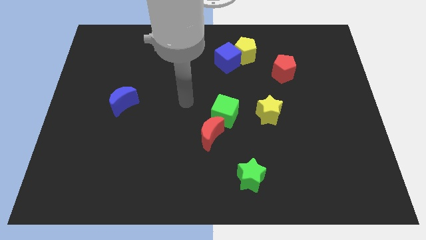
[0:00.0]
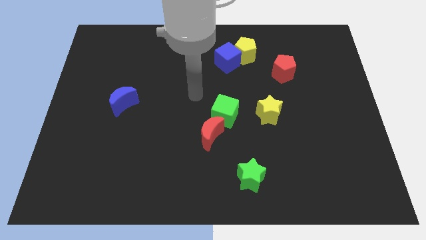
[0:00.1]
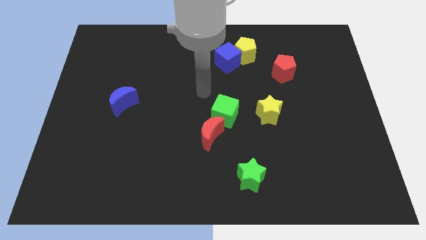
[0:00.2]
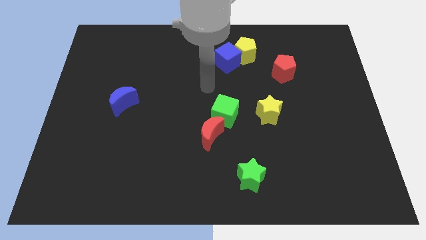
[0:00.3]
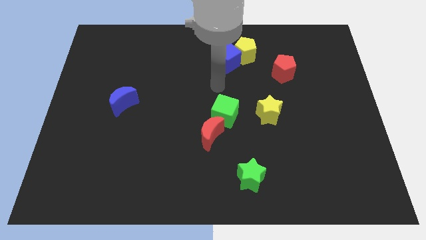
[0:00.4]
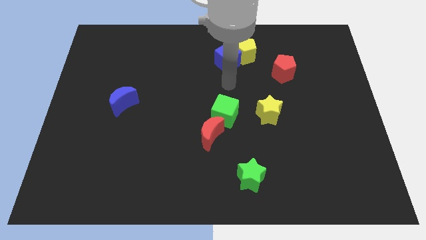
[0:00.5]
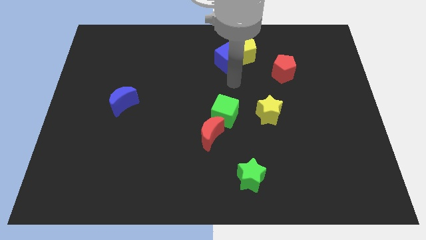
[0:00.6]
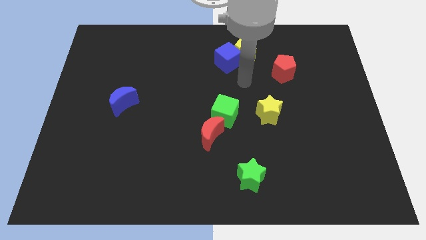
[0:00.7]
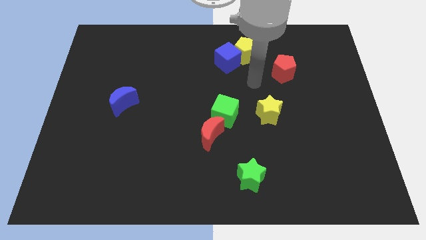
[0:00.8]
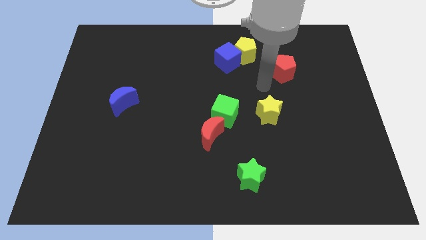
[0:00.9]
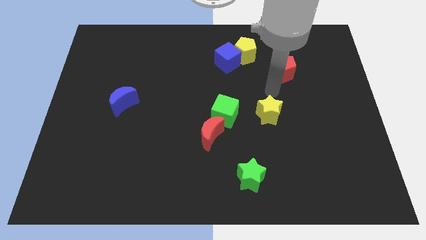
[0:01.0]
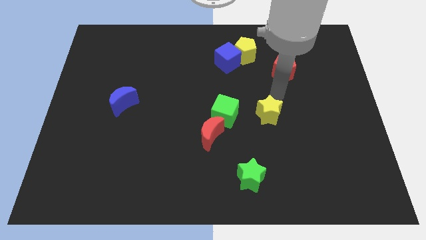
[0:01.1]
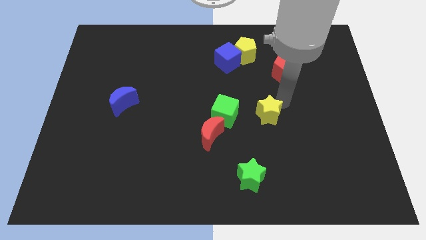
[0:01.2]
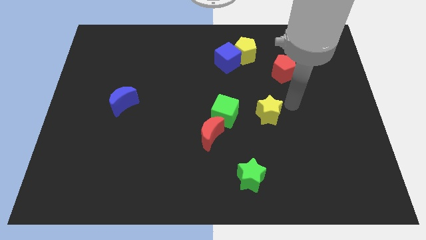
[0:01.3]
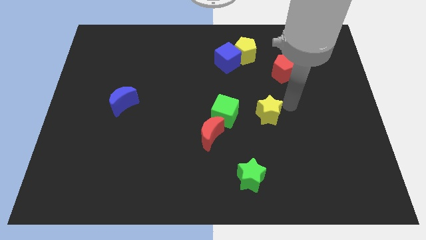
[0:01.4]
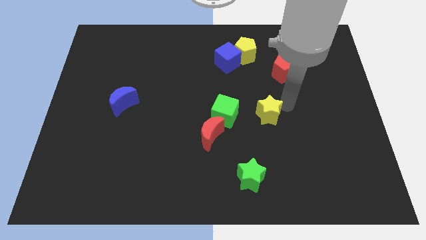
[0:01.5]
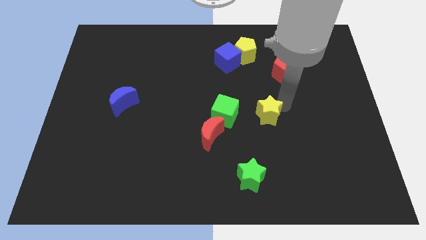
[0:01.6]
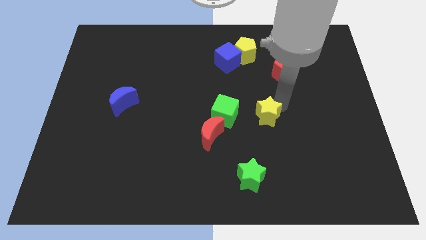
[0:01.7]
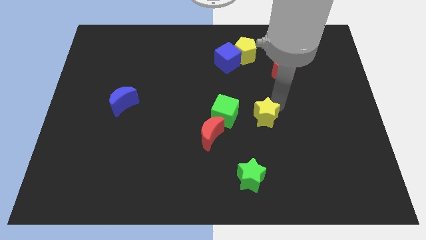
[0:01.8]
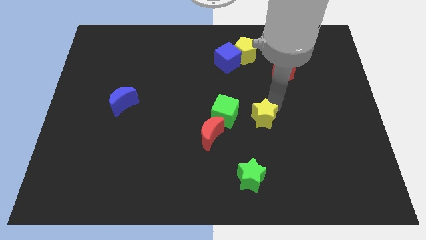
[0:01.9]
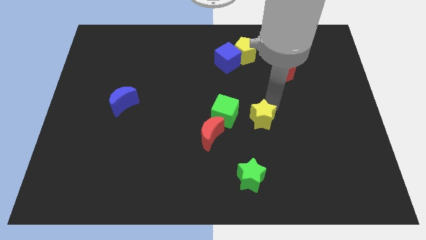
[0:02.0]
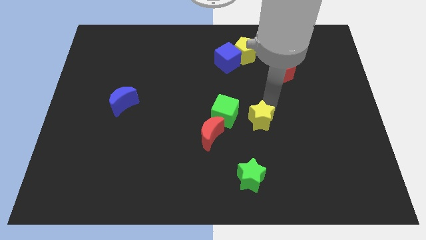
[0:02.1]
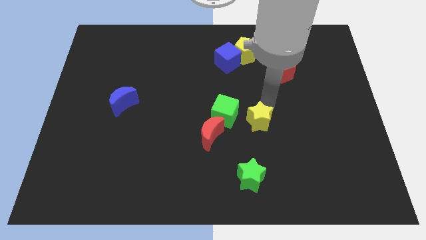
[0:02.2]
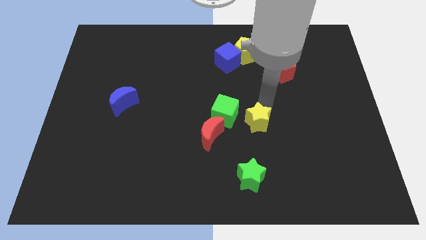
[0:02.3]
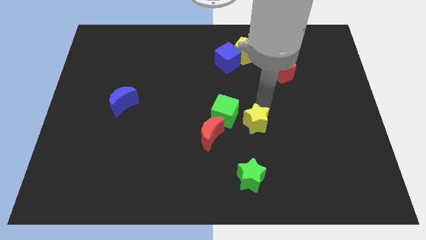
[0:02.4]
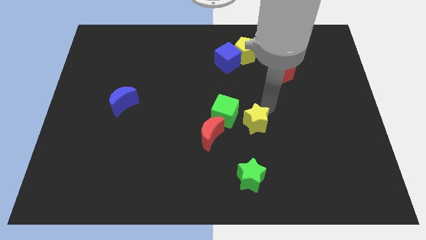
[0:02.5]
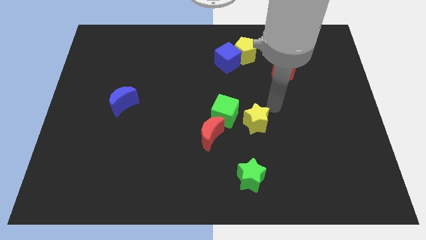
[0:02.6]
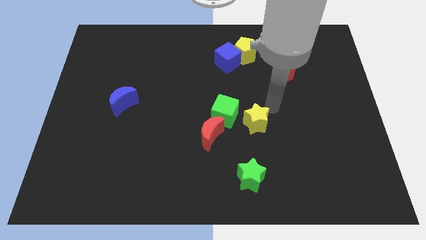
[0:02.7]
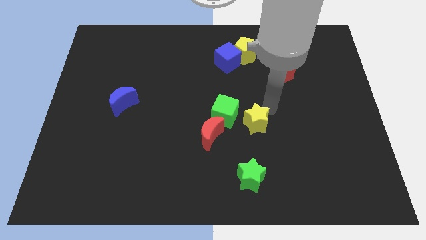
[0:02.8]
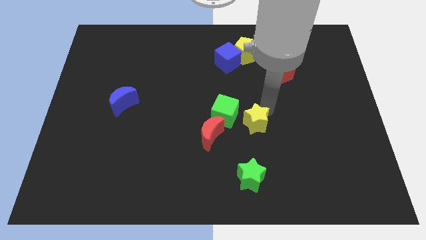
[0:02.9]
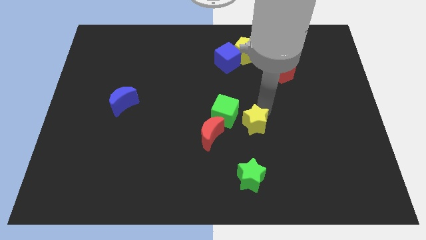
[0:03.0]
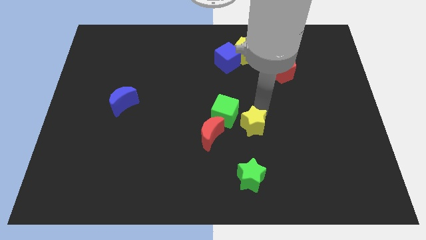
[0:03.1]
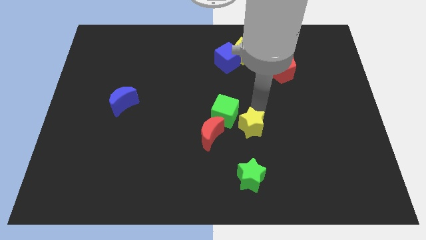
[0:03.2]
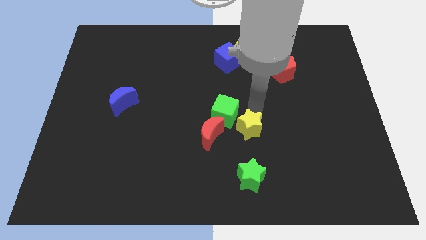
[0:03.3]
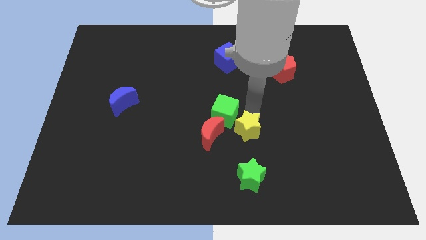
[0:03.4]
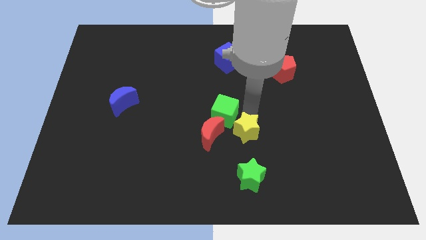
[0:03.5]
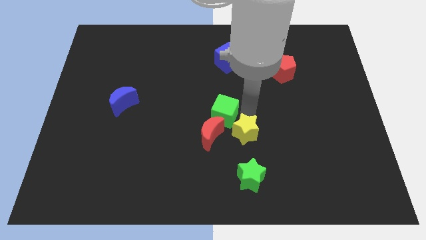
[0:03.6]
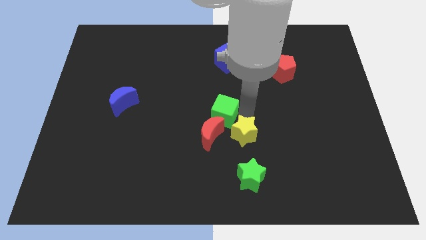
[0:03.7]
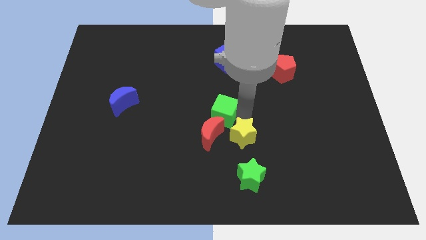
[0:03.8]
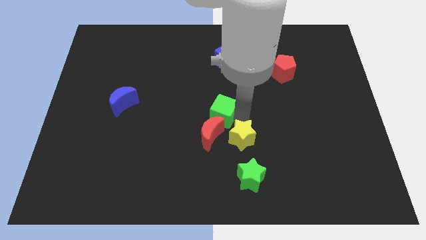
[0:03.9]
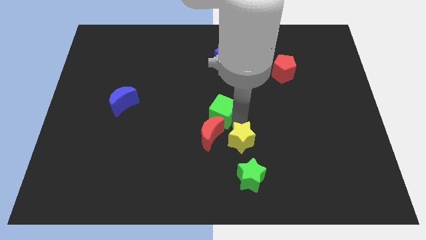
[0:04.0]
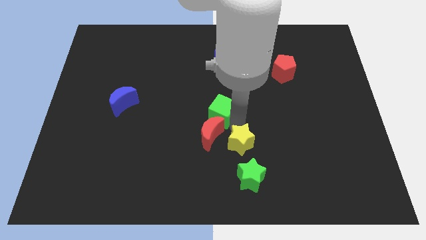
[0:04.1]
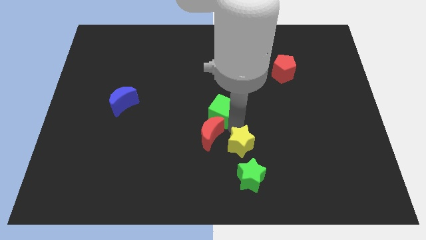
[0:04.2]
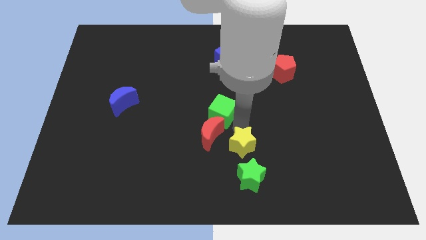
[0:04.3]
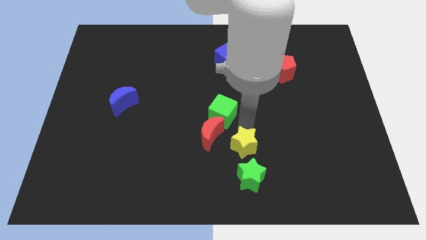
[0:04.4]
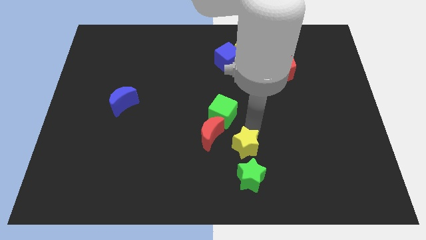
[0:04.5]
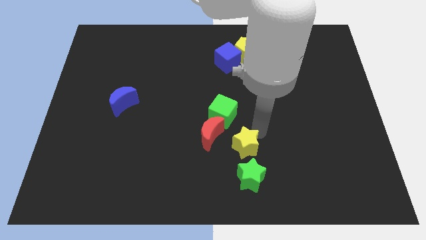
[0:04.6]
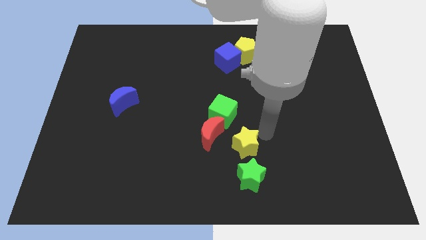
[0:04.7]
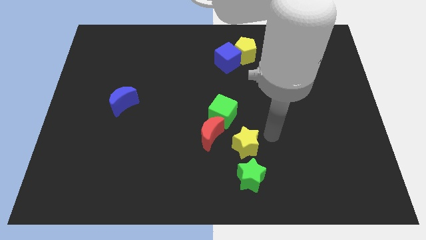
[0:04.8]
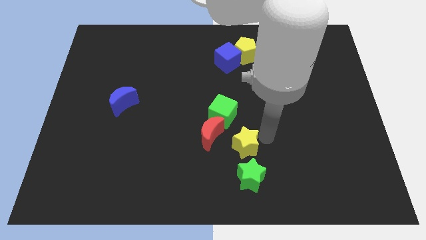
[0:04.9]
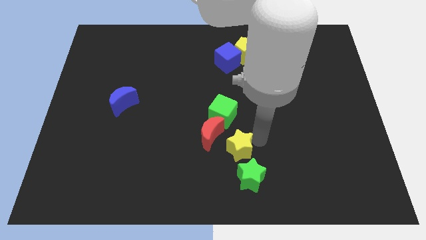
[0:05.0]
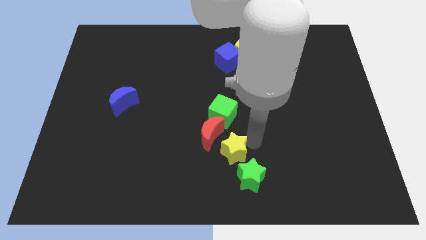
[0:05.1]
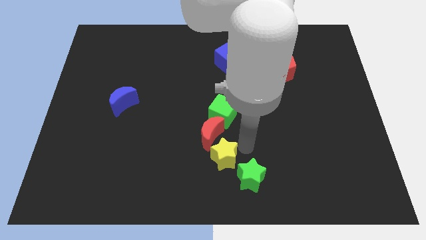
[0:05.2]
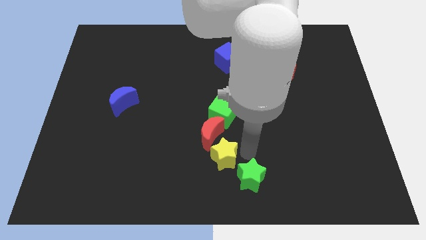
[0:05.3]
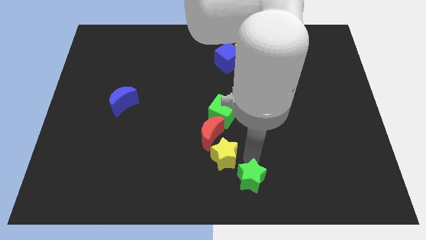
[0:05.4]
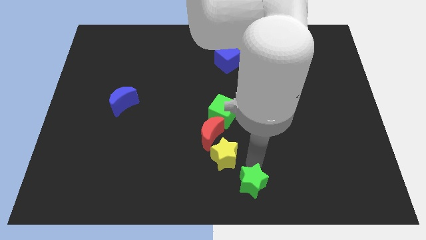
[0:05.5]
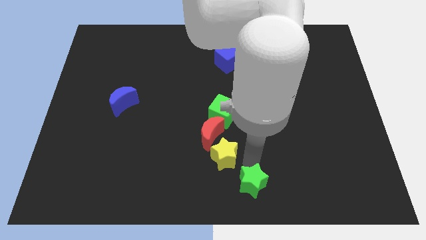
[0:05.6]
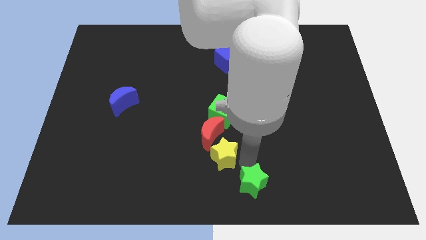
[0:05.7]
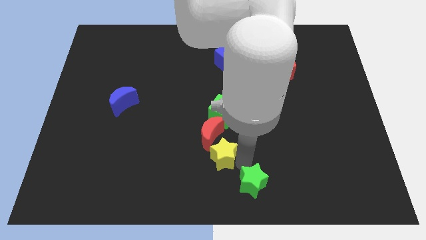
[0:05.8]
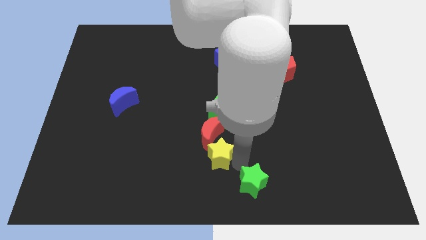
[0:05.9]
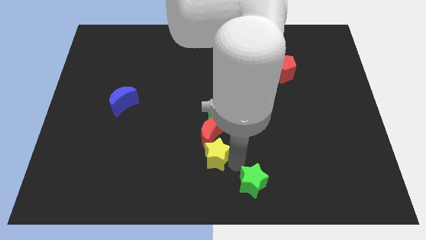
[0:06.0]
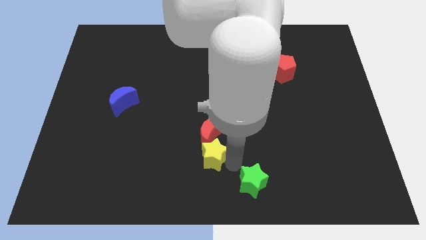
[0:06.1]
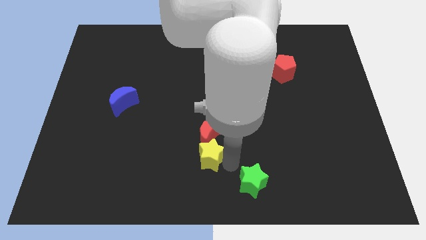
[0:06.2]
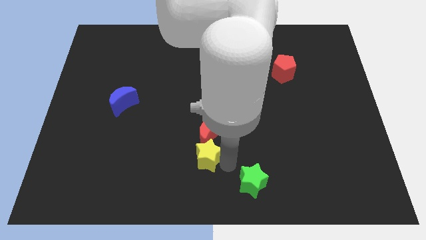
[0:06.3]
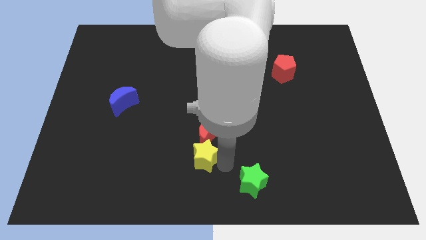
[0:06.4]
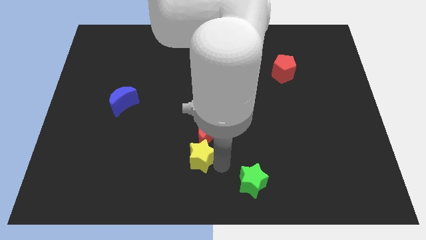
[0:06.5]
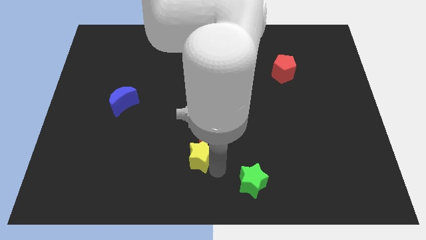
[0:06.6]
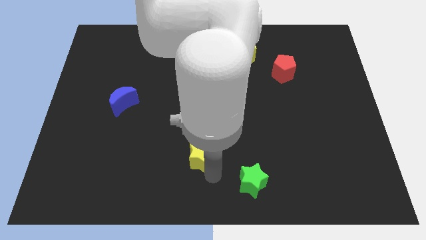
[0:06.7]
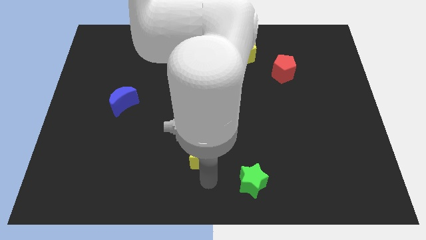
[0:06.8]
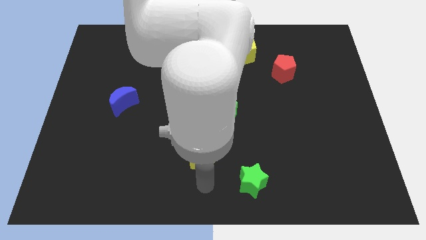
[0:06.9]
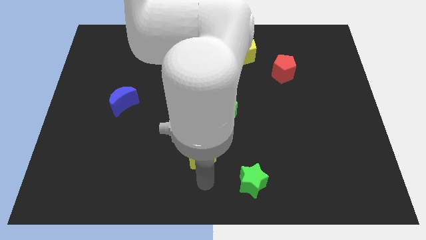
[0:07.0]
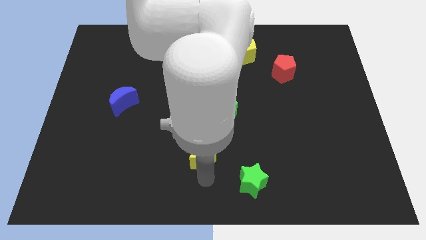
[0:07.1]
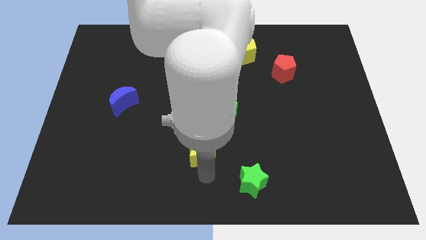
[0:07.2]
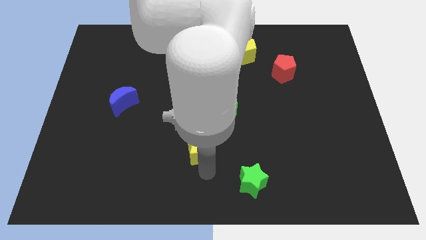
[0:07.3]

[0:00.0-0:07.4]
push the yellow star to the bottom left of the green cube
